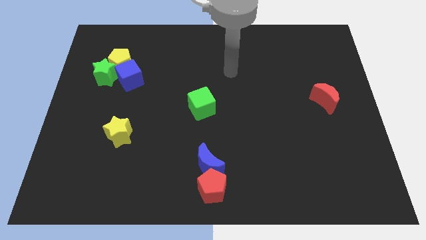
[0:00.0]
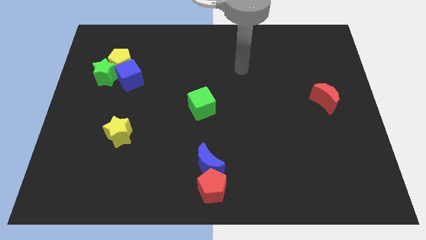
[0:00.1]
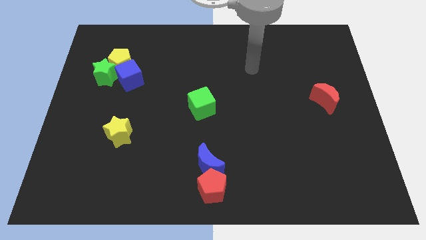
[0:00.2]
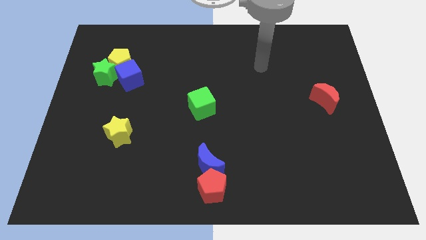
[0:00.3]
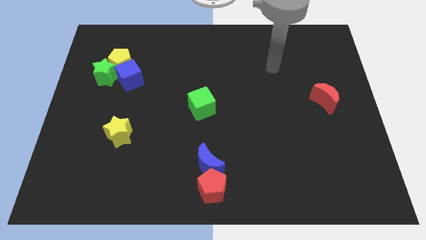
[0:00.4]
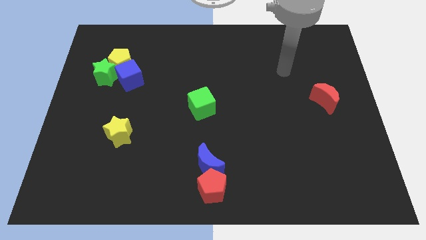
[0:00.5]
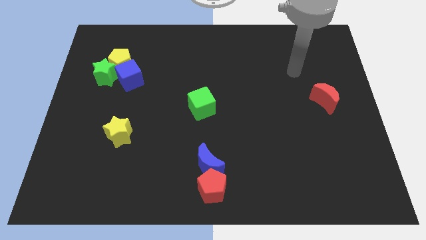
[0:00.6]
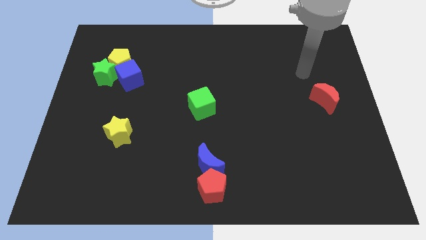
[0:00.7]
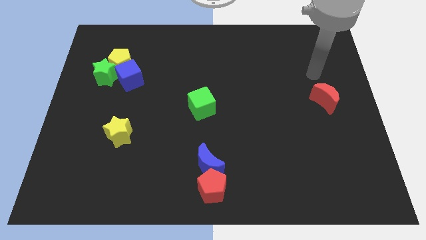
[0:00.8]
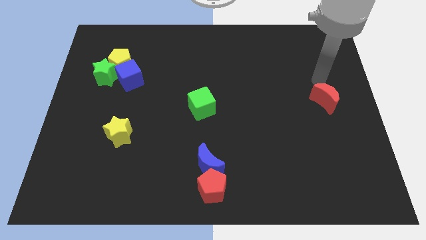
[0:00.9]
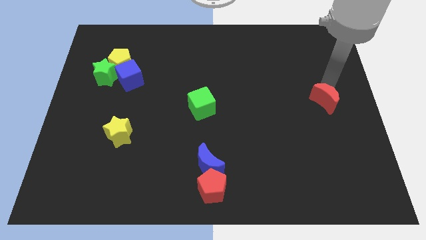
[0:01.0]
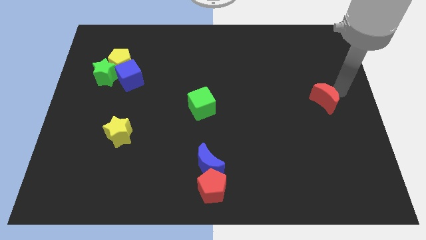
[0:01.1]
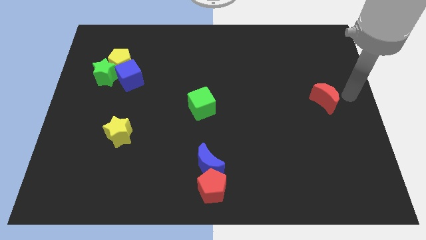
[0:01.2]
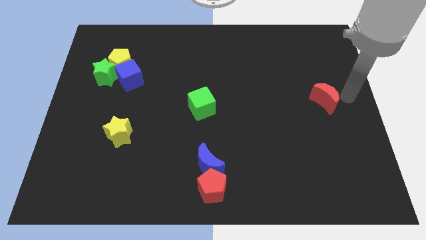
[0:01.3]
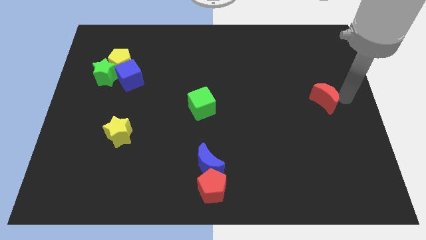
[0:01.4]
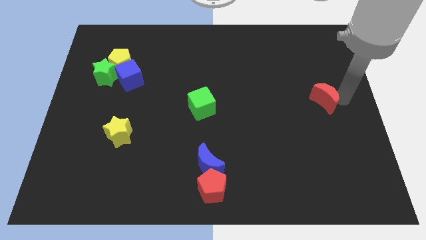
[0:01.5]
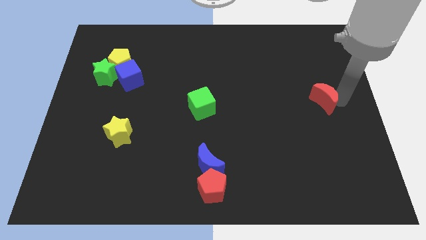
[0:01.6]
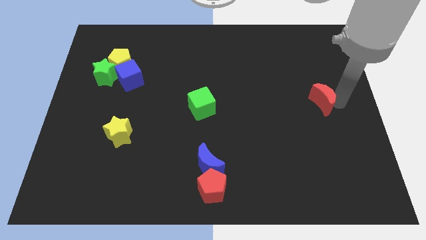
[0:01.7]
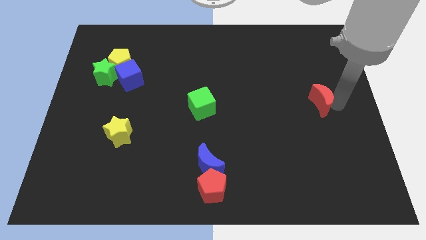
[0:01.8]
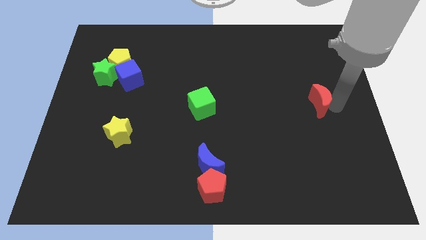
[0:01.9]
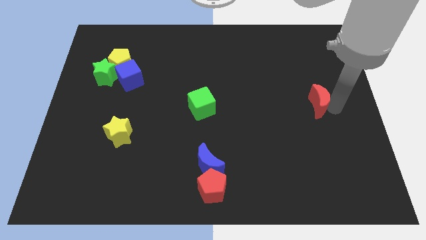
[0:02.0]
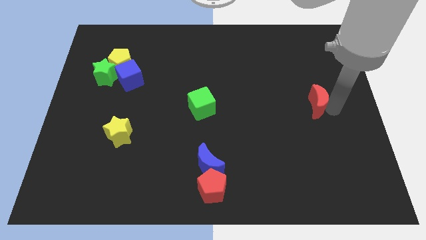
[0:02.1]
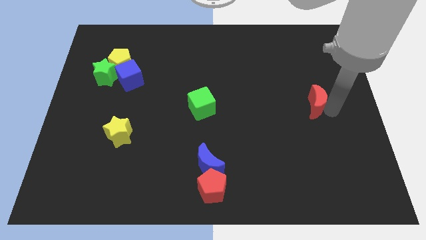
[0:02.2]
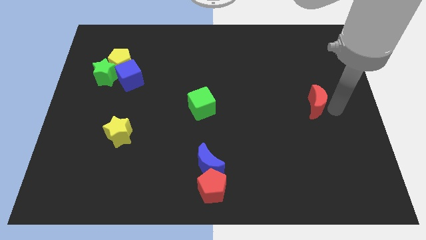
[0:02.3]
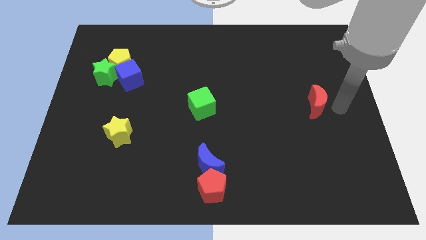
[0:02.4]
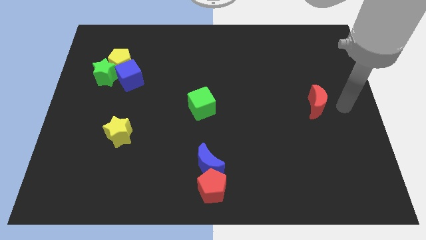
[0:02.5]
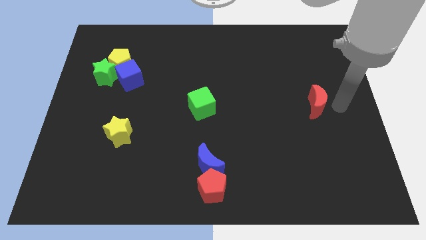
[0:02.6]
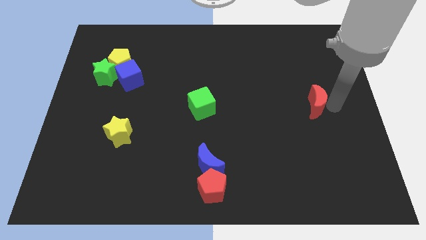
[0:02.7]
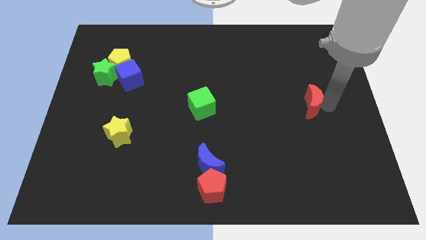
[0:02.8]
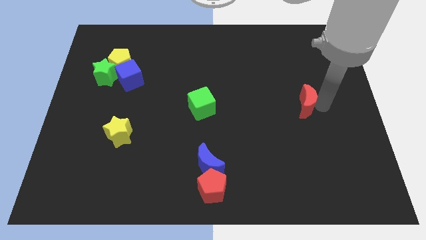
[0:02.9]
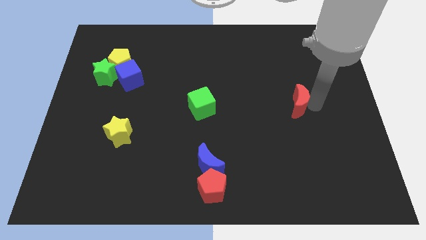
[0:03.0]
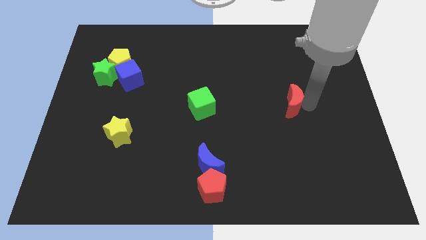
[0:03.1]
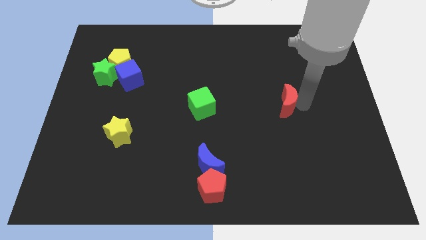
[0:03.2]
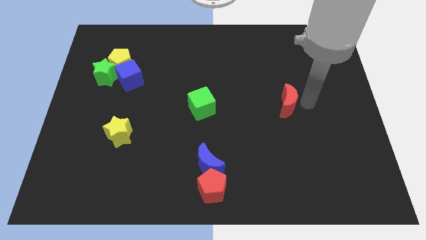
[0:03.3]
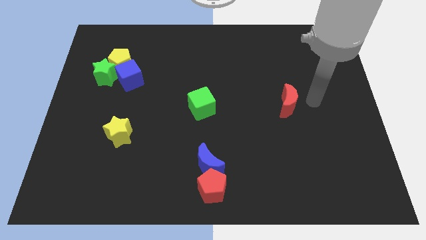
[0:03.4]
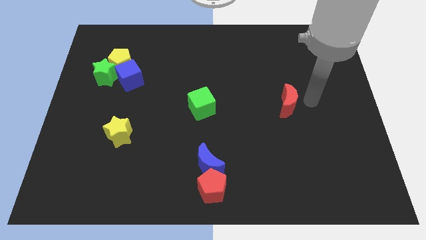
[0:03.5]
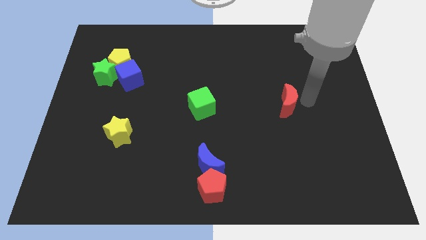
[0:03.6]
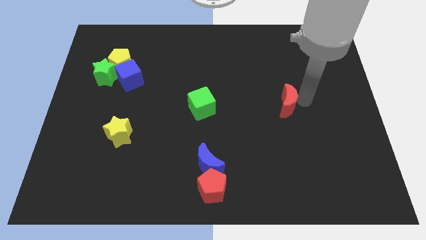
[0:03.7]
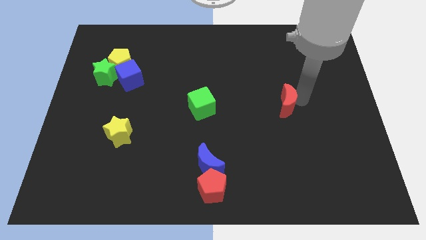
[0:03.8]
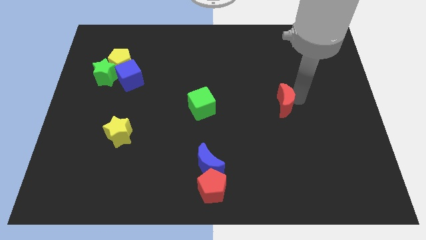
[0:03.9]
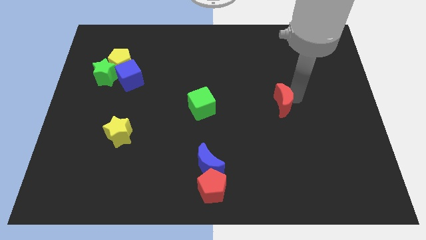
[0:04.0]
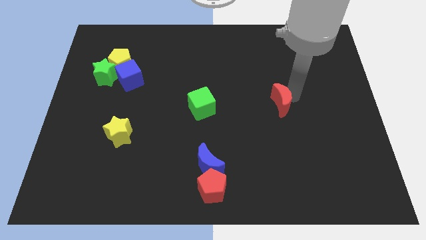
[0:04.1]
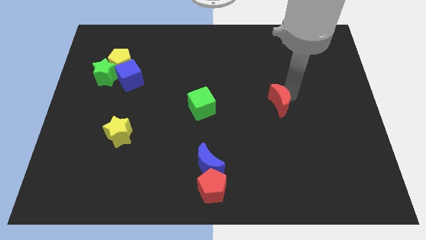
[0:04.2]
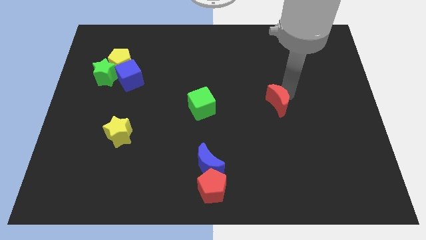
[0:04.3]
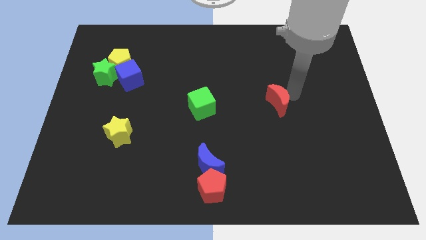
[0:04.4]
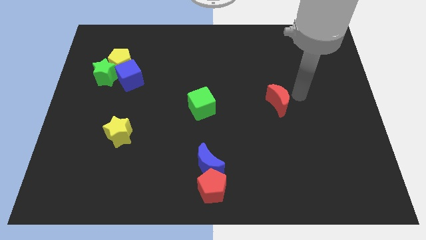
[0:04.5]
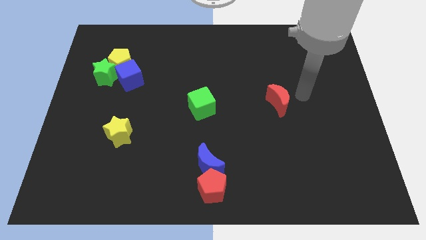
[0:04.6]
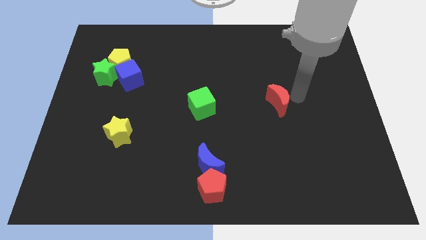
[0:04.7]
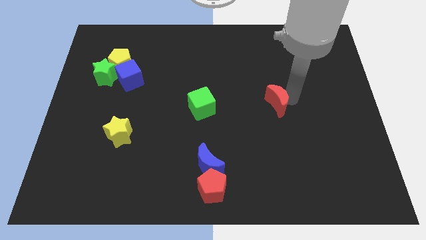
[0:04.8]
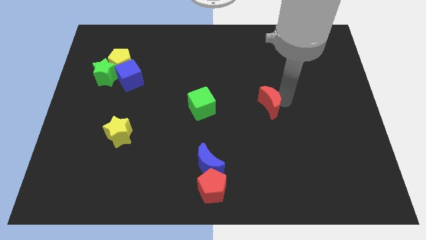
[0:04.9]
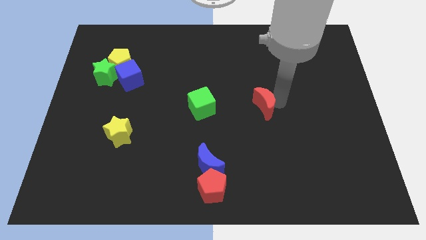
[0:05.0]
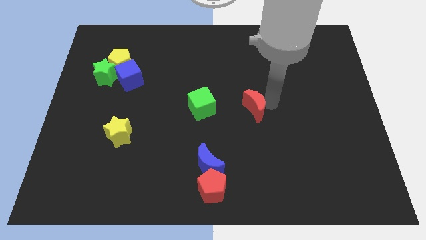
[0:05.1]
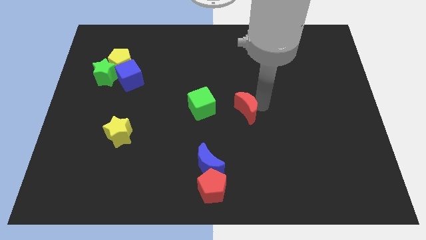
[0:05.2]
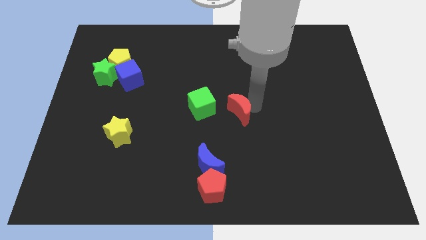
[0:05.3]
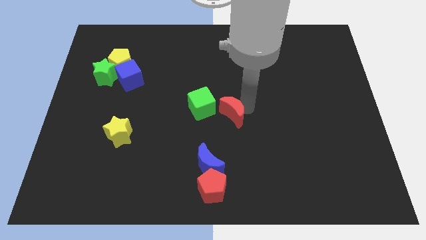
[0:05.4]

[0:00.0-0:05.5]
slide the red moon diagonally down and to the right of the green cube
